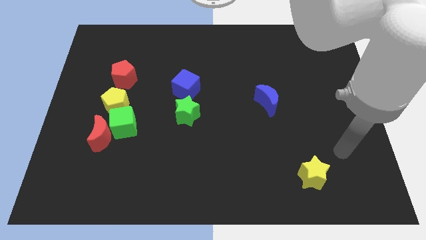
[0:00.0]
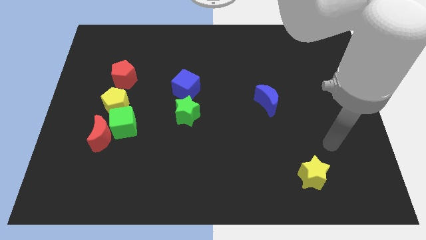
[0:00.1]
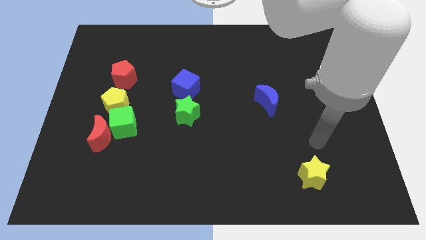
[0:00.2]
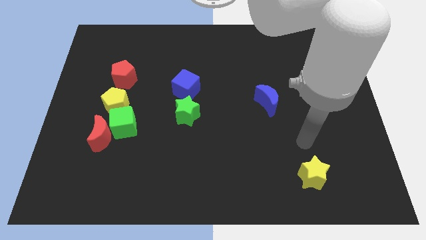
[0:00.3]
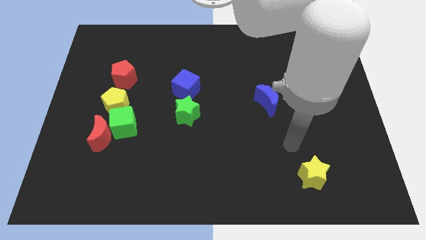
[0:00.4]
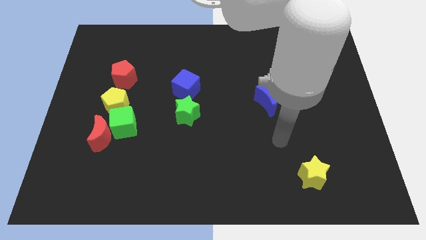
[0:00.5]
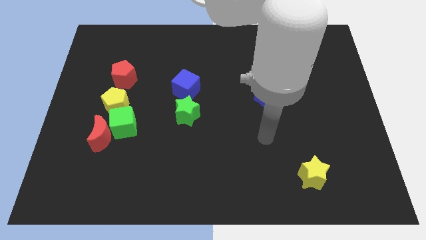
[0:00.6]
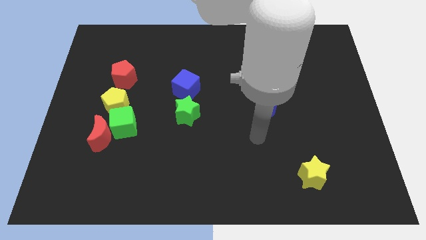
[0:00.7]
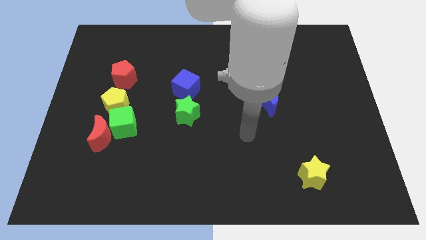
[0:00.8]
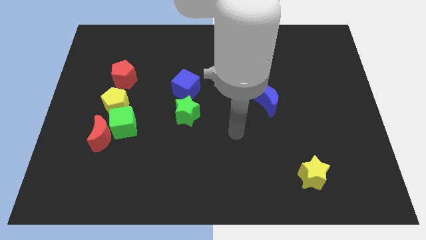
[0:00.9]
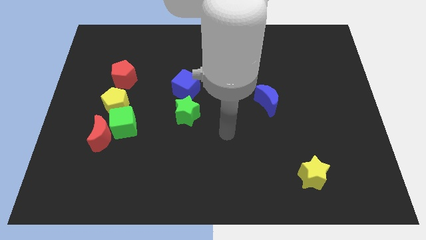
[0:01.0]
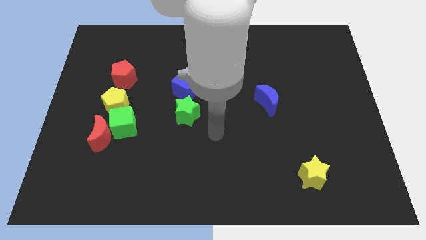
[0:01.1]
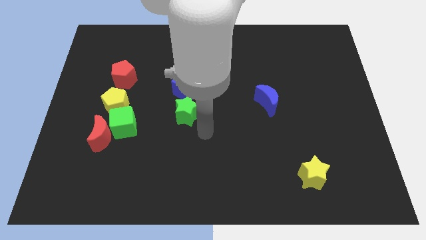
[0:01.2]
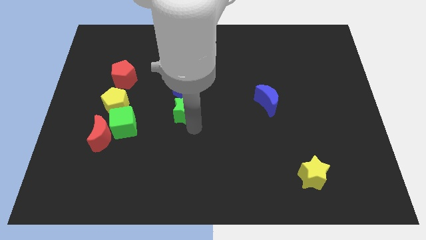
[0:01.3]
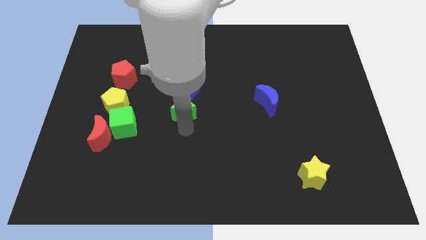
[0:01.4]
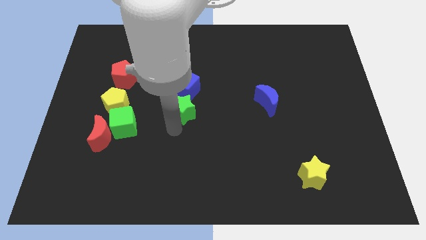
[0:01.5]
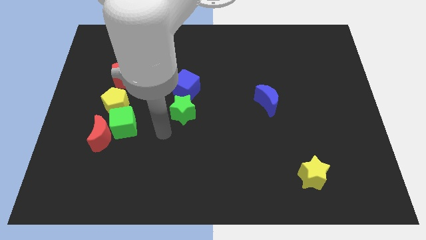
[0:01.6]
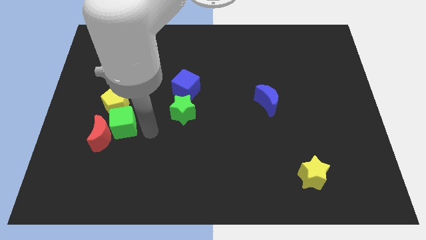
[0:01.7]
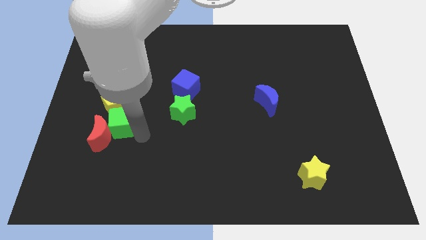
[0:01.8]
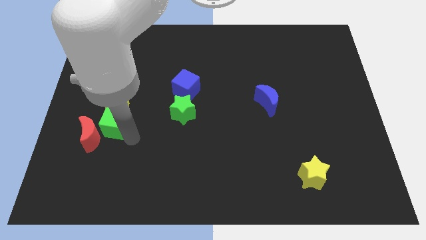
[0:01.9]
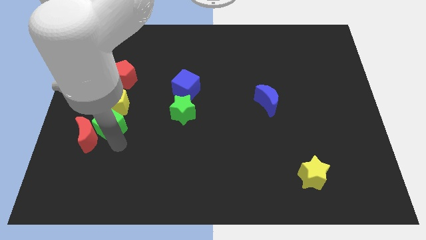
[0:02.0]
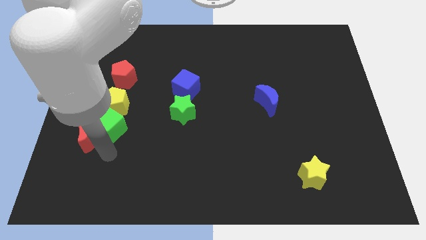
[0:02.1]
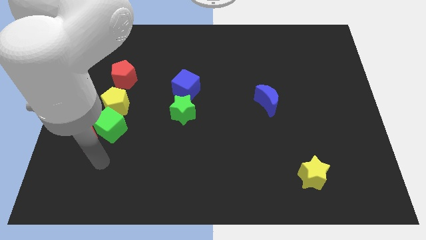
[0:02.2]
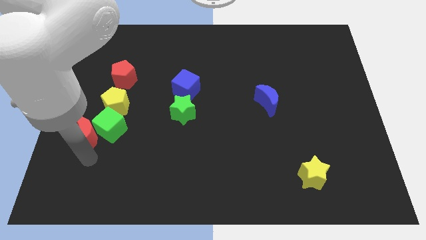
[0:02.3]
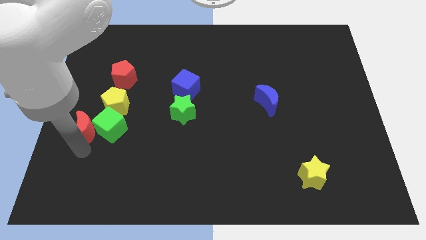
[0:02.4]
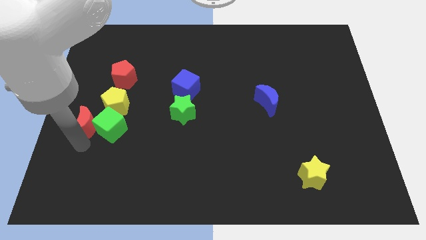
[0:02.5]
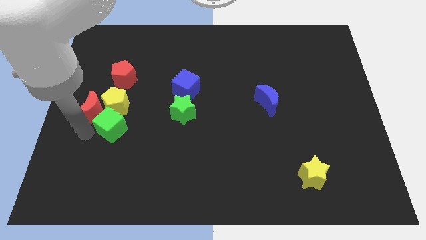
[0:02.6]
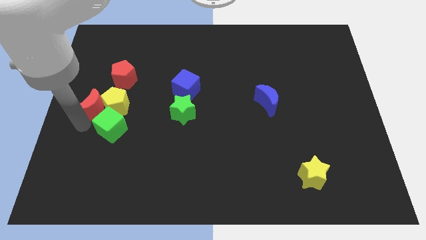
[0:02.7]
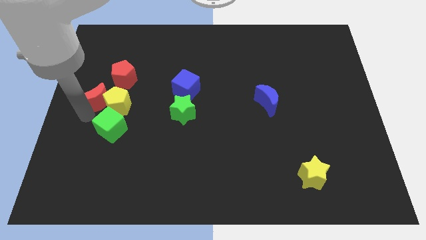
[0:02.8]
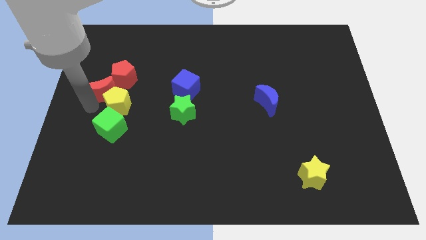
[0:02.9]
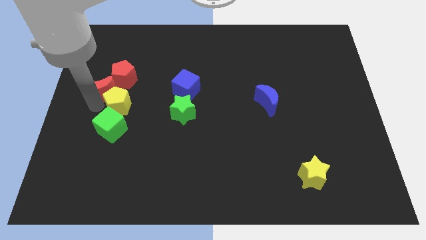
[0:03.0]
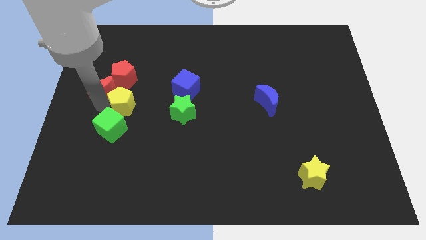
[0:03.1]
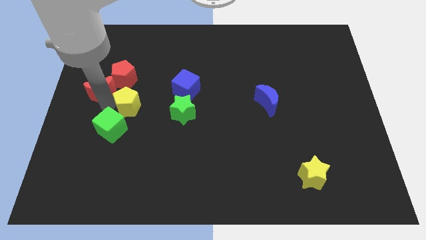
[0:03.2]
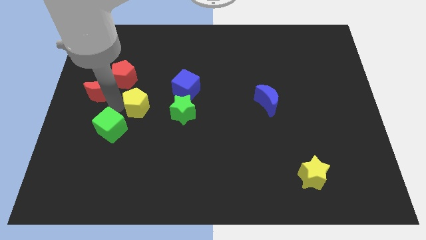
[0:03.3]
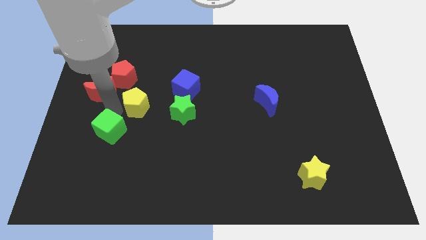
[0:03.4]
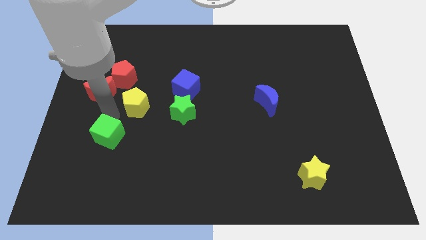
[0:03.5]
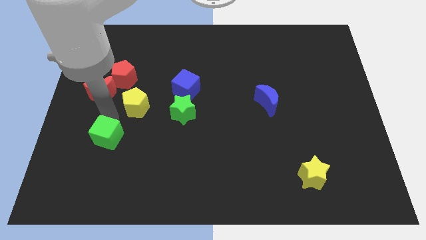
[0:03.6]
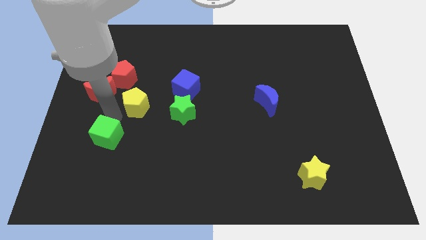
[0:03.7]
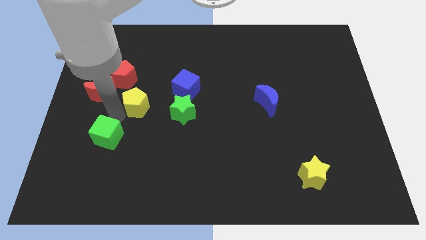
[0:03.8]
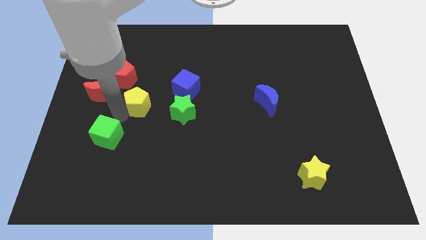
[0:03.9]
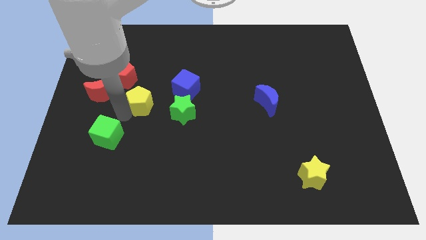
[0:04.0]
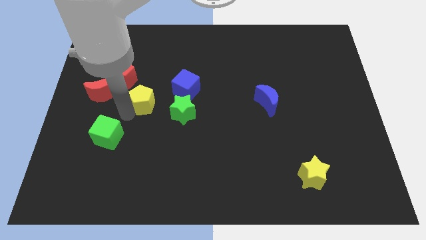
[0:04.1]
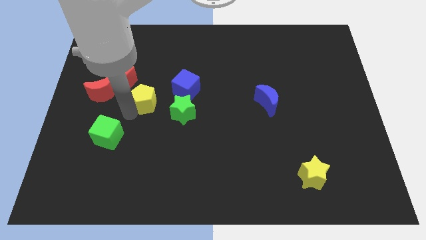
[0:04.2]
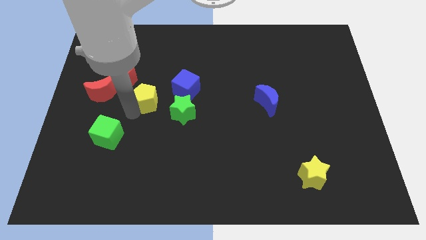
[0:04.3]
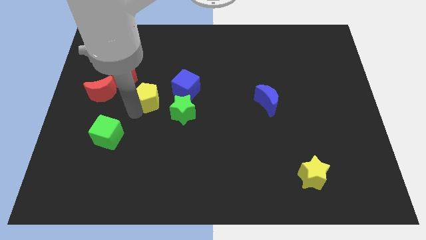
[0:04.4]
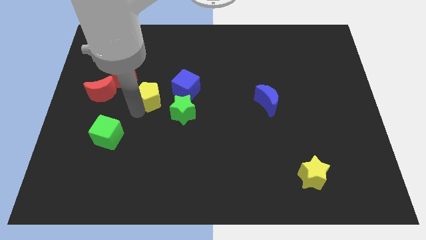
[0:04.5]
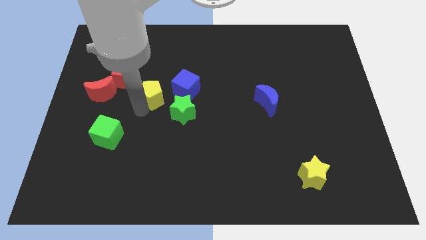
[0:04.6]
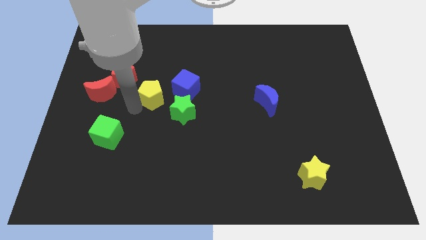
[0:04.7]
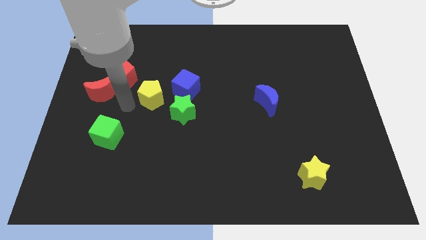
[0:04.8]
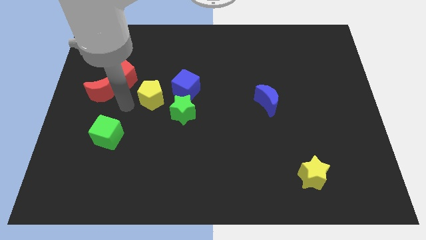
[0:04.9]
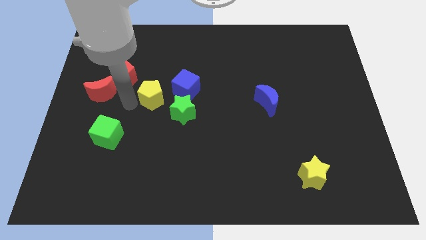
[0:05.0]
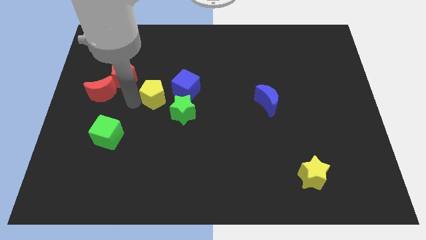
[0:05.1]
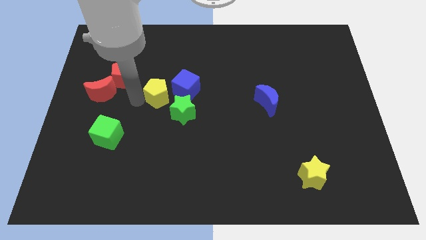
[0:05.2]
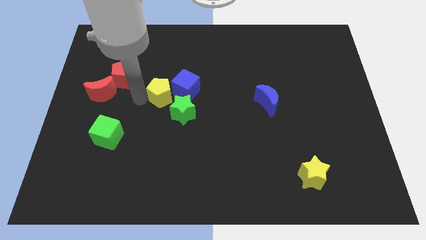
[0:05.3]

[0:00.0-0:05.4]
slide the yellow pentagon towards the blue cube

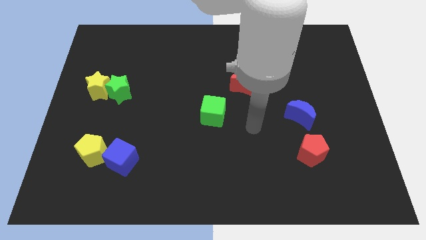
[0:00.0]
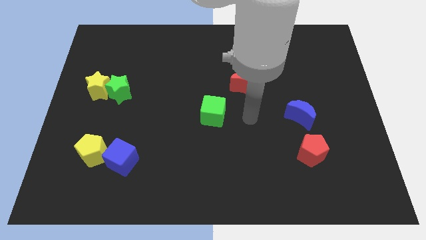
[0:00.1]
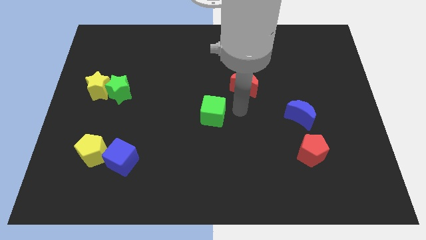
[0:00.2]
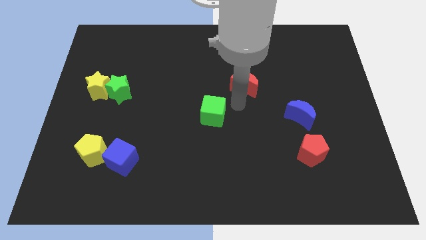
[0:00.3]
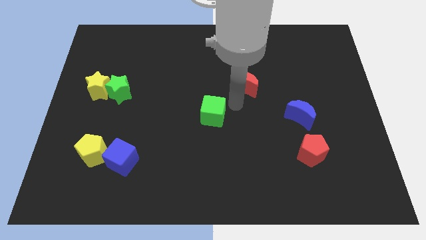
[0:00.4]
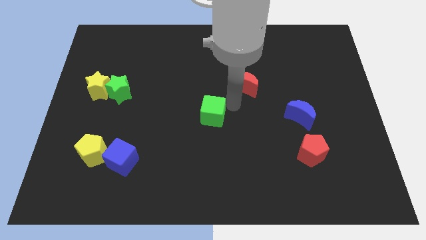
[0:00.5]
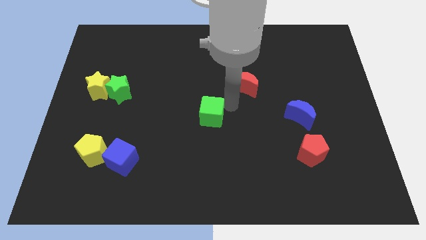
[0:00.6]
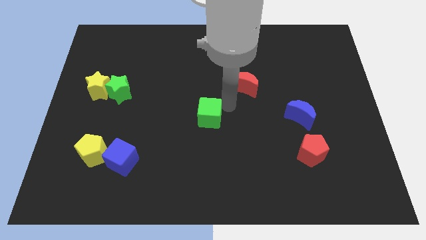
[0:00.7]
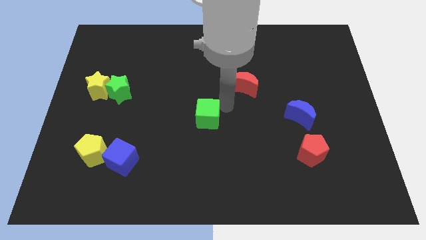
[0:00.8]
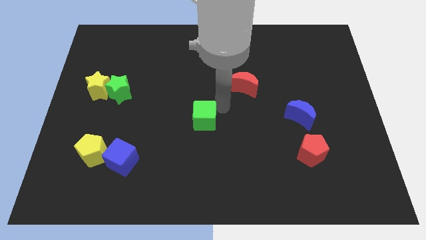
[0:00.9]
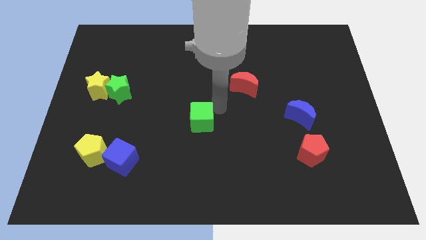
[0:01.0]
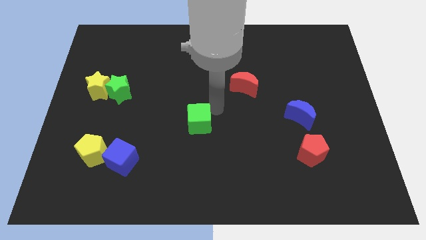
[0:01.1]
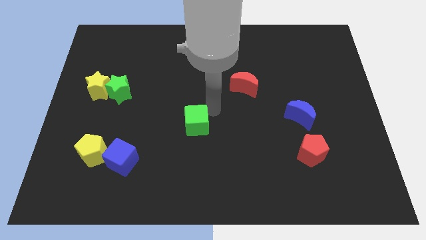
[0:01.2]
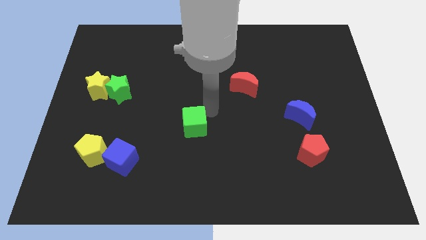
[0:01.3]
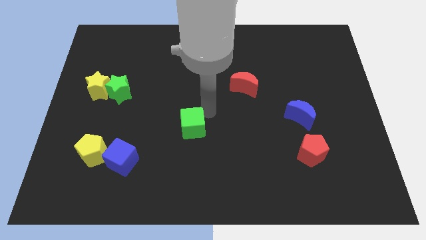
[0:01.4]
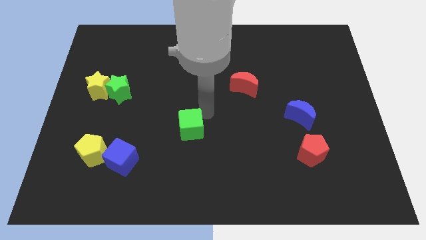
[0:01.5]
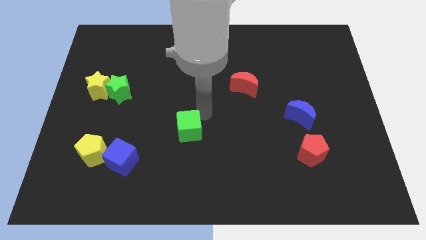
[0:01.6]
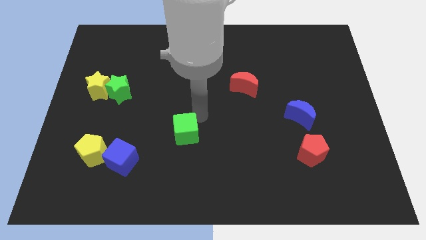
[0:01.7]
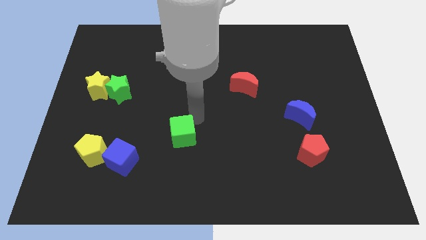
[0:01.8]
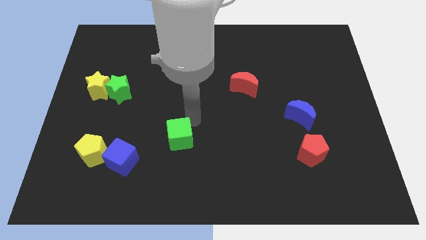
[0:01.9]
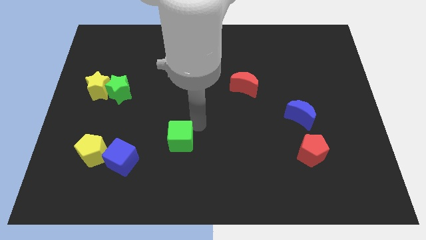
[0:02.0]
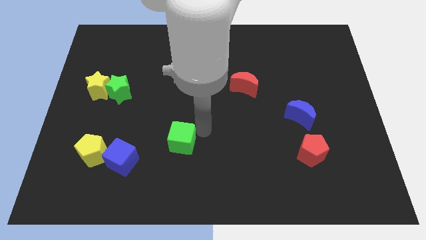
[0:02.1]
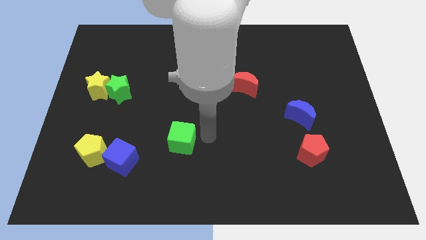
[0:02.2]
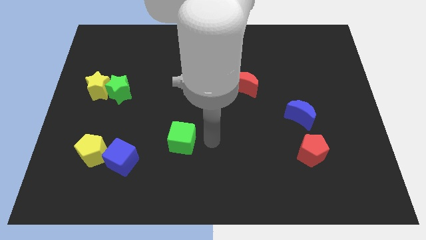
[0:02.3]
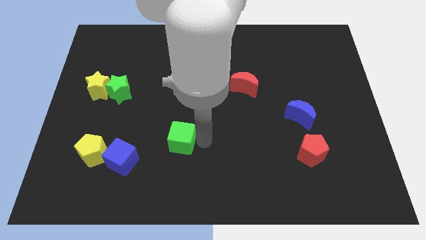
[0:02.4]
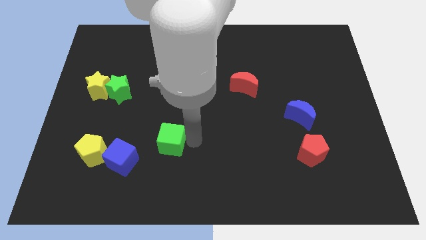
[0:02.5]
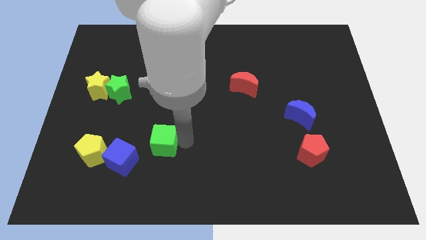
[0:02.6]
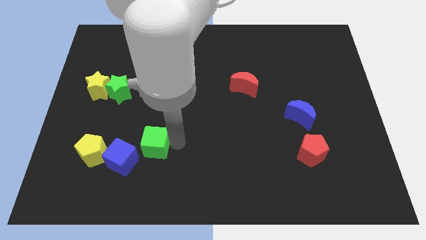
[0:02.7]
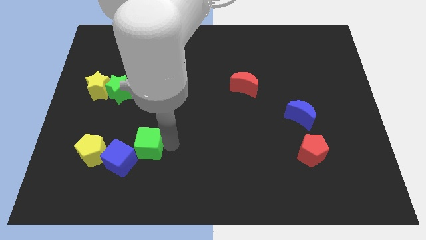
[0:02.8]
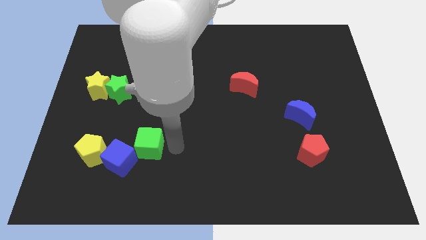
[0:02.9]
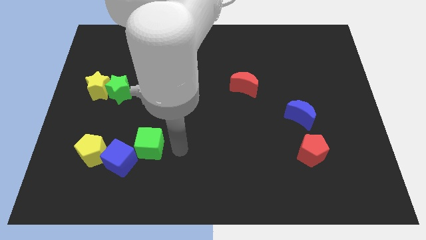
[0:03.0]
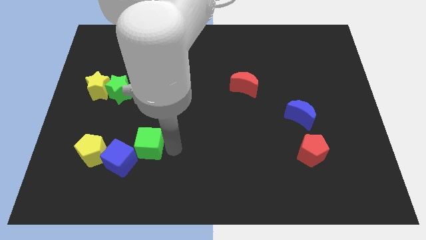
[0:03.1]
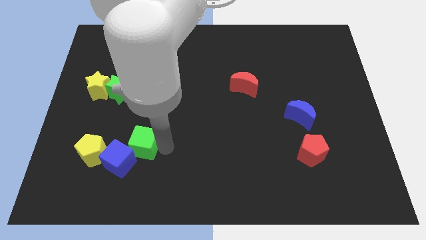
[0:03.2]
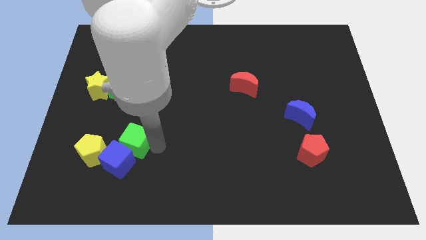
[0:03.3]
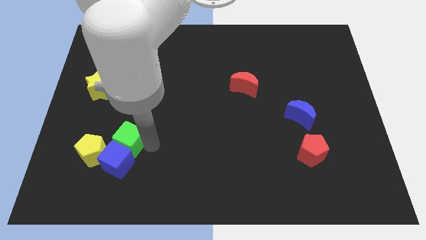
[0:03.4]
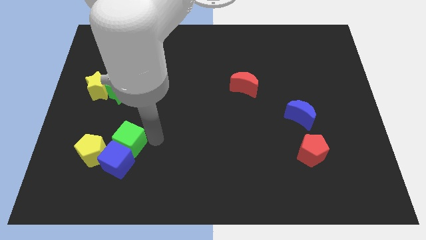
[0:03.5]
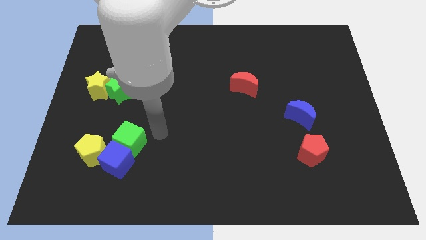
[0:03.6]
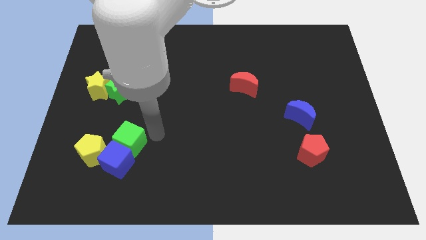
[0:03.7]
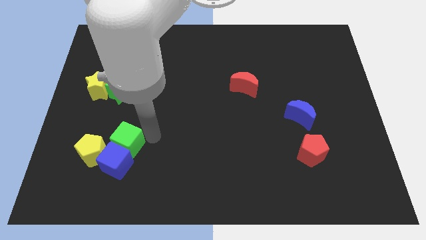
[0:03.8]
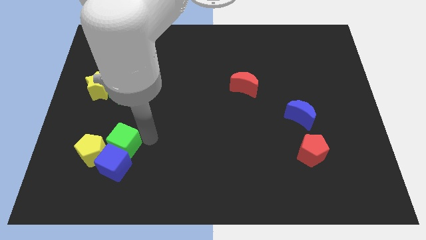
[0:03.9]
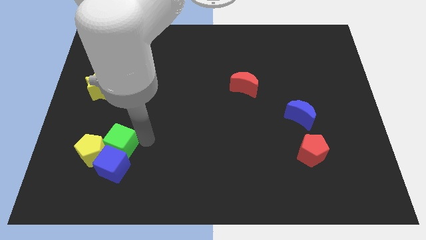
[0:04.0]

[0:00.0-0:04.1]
slide the green cube close to the yellow pentagon
